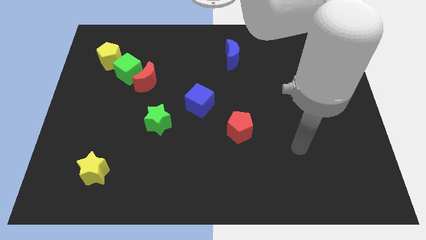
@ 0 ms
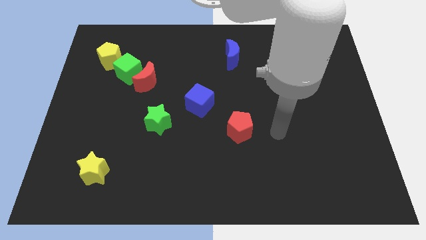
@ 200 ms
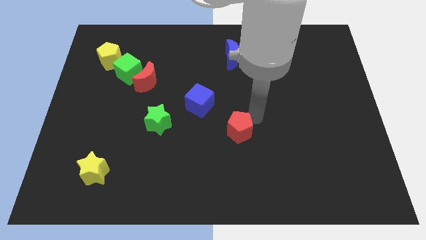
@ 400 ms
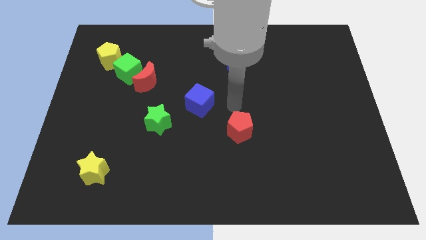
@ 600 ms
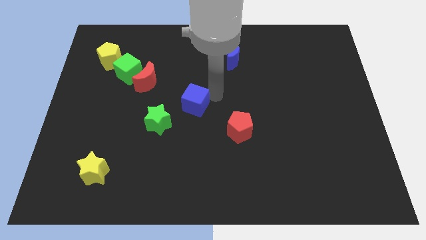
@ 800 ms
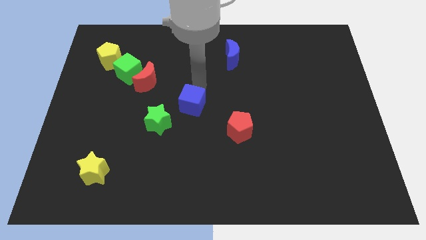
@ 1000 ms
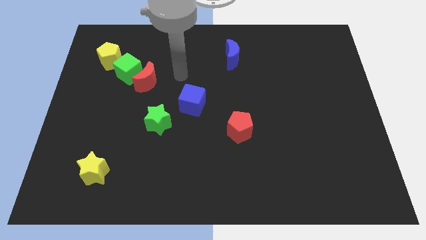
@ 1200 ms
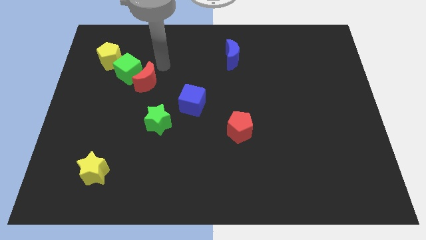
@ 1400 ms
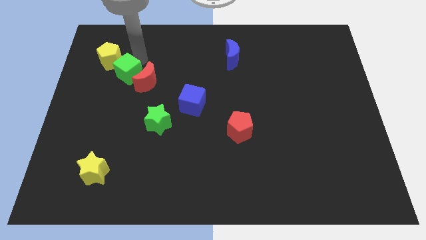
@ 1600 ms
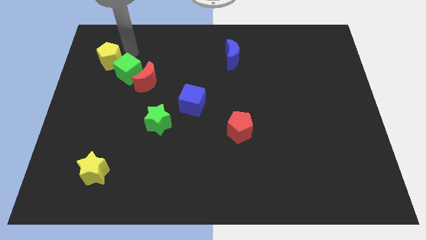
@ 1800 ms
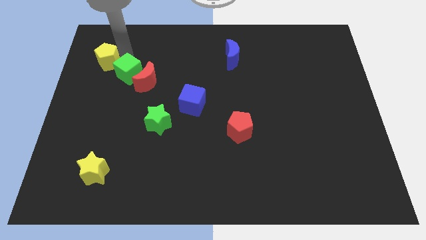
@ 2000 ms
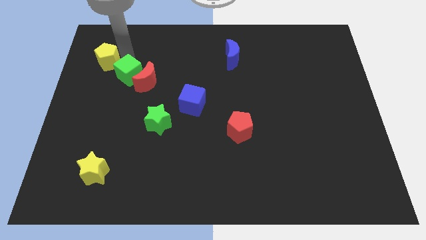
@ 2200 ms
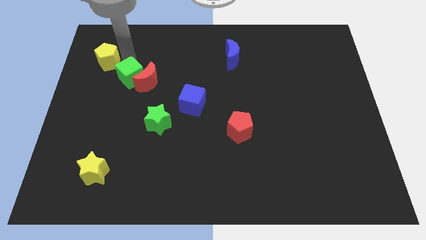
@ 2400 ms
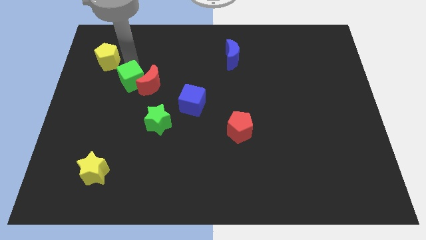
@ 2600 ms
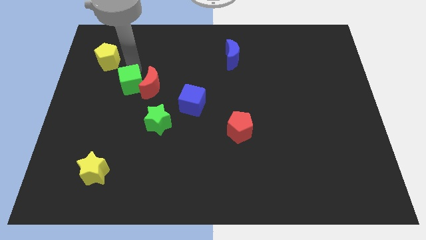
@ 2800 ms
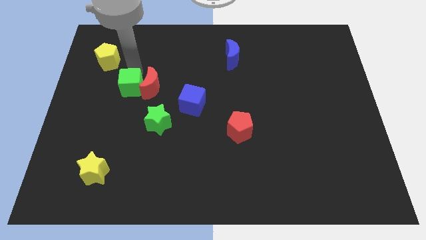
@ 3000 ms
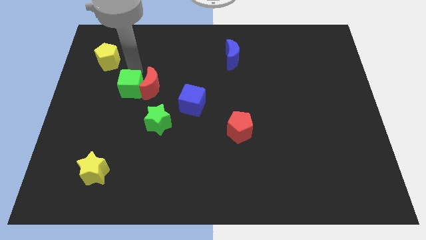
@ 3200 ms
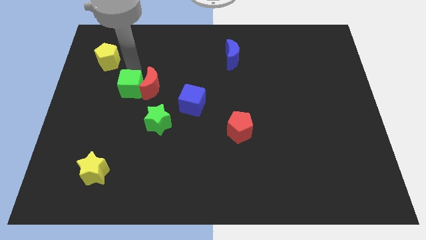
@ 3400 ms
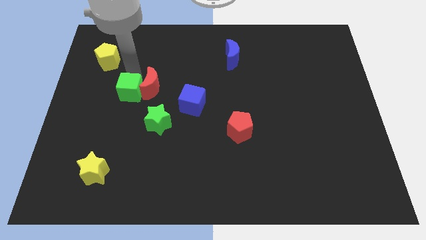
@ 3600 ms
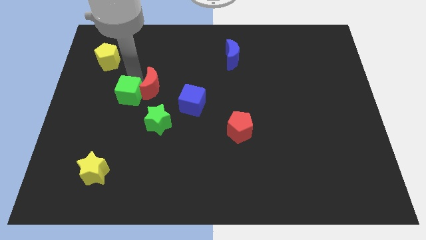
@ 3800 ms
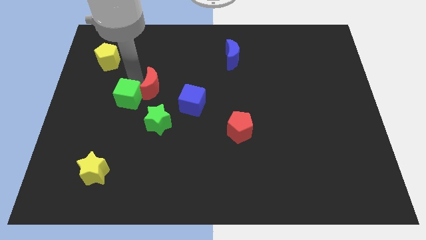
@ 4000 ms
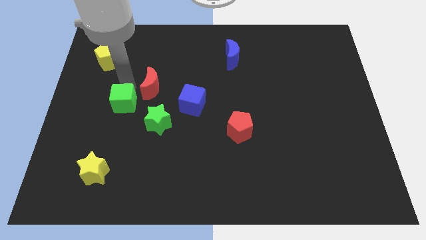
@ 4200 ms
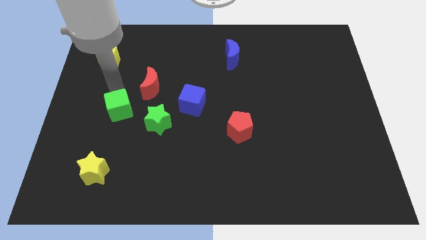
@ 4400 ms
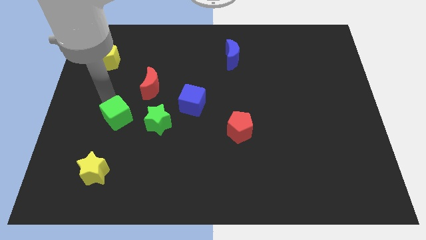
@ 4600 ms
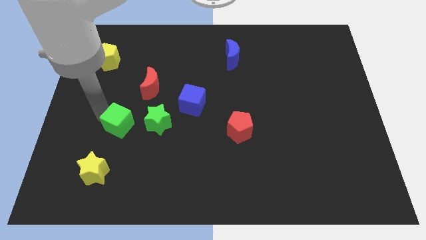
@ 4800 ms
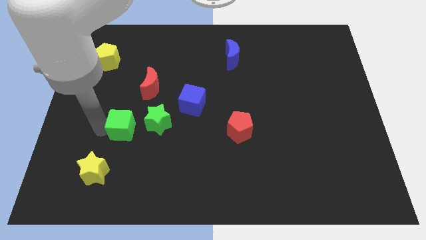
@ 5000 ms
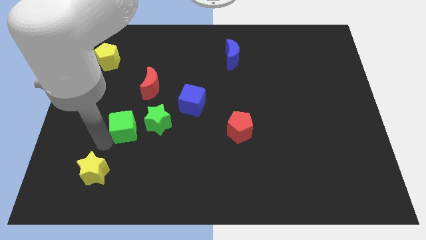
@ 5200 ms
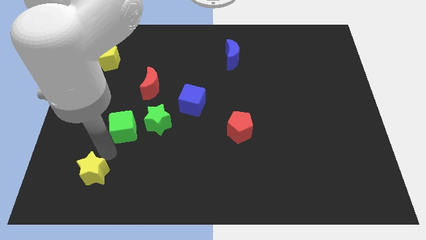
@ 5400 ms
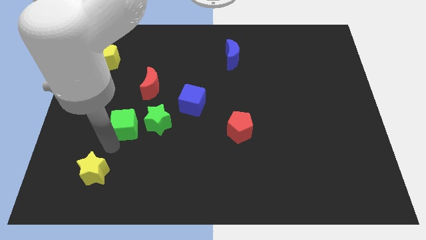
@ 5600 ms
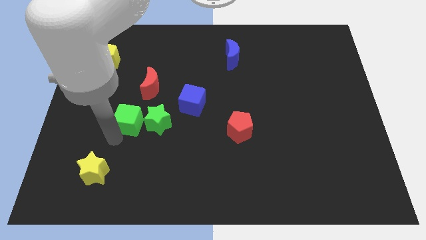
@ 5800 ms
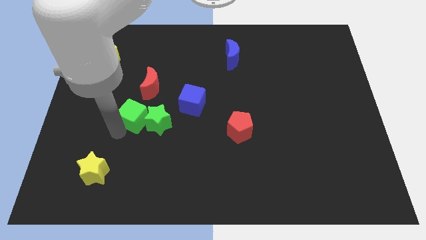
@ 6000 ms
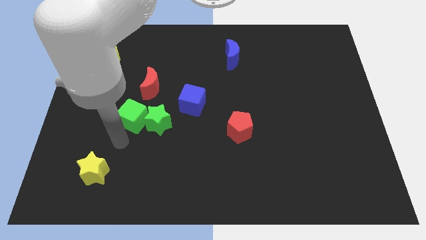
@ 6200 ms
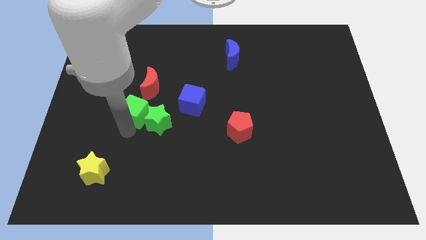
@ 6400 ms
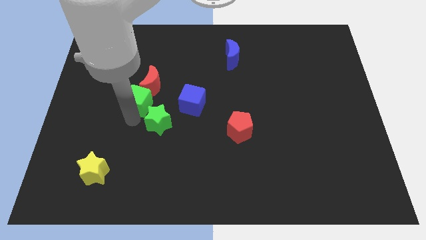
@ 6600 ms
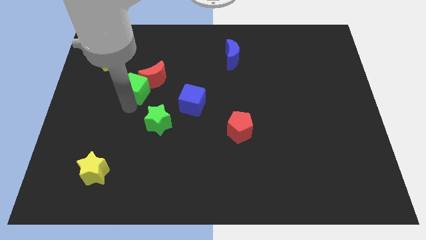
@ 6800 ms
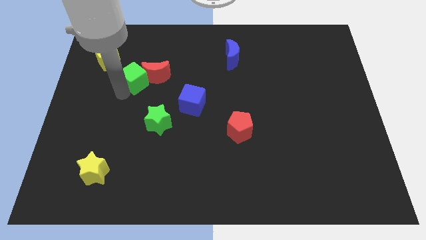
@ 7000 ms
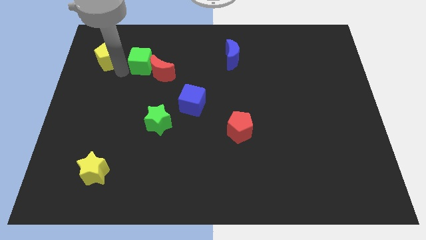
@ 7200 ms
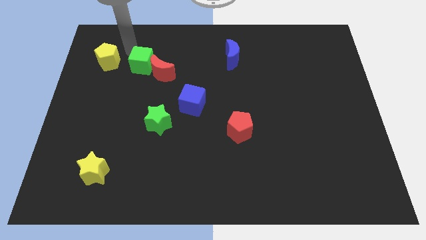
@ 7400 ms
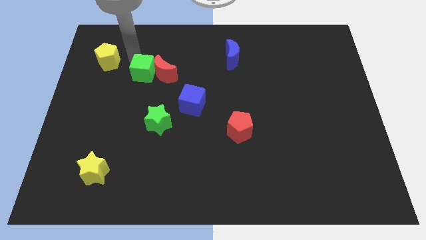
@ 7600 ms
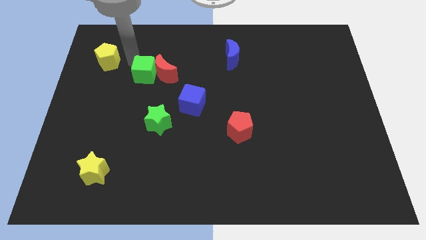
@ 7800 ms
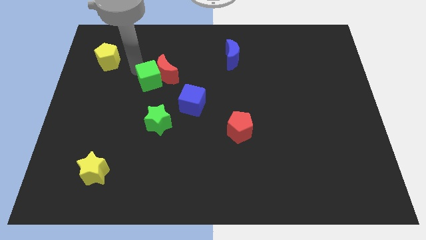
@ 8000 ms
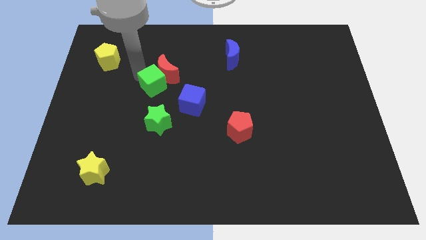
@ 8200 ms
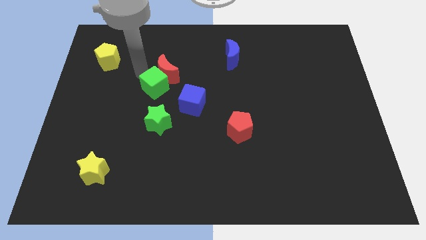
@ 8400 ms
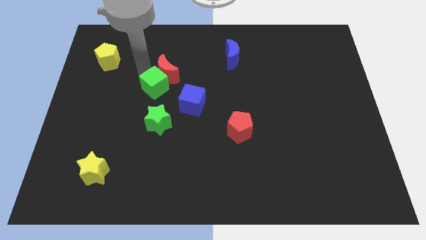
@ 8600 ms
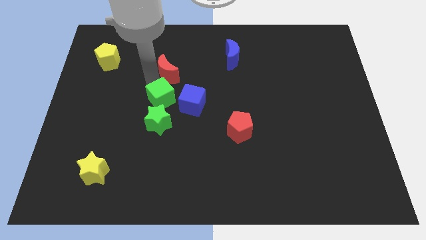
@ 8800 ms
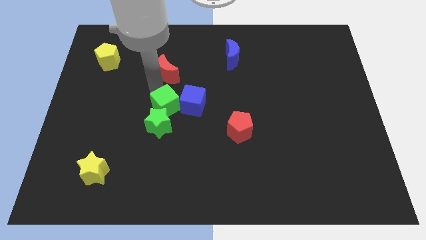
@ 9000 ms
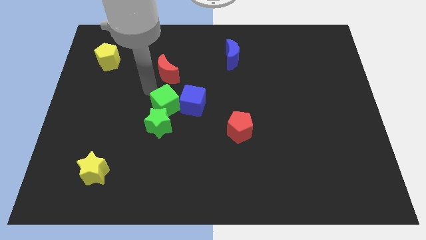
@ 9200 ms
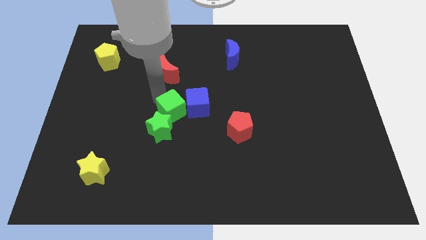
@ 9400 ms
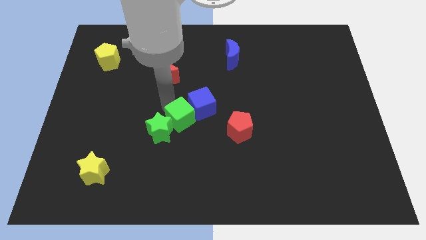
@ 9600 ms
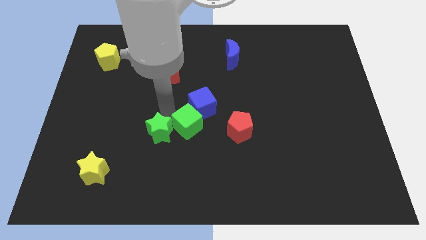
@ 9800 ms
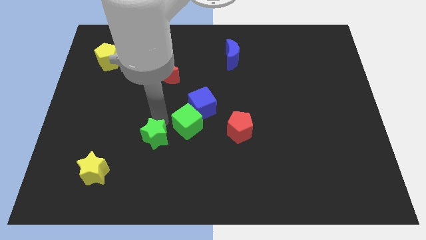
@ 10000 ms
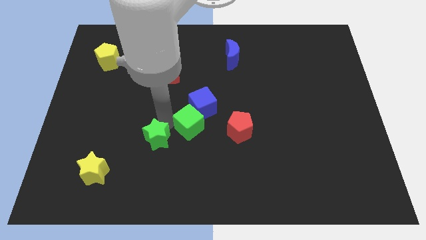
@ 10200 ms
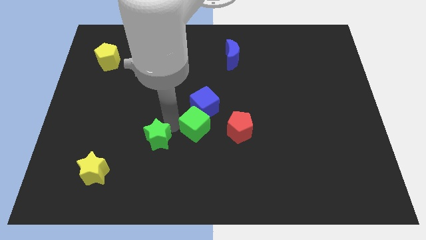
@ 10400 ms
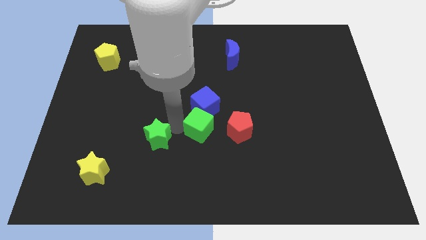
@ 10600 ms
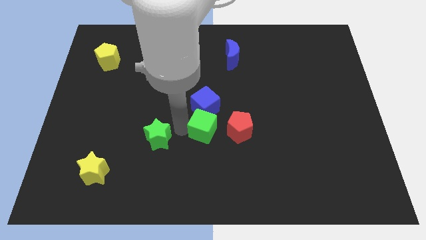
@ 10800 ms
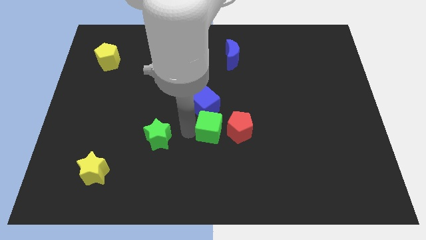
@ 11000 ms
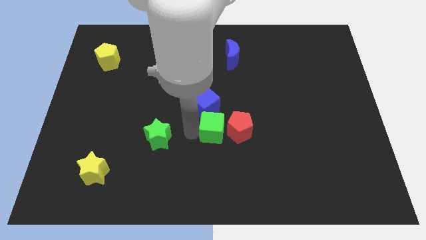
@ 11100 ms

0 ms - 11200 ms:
move the green cube next to the red pentagon

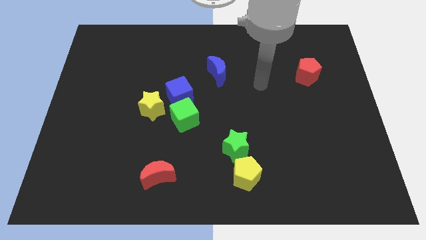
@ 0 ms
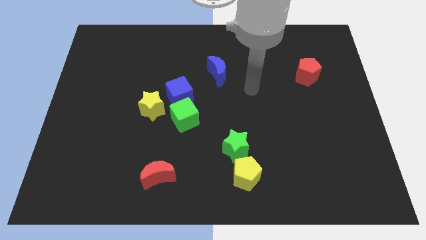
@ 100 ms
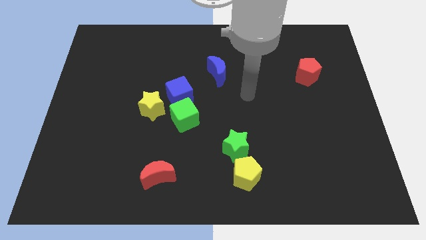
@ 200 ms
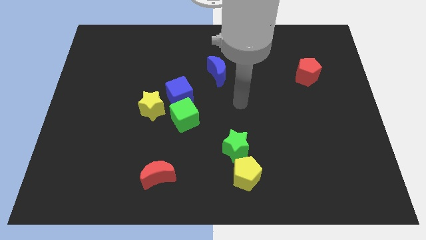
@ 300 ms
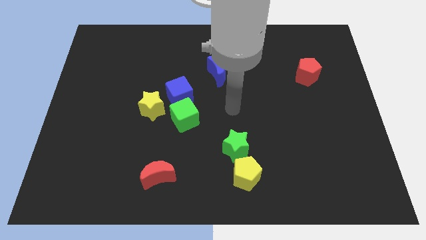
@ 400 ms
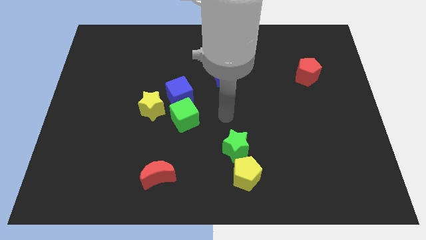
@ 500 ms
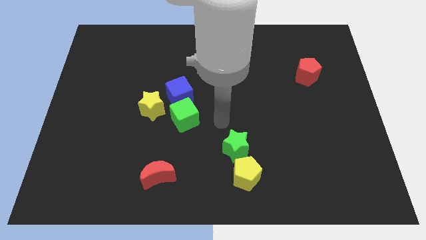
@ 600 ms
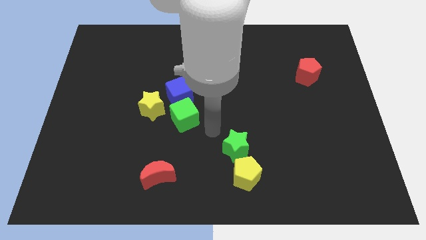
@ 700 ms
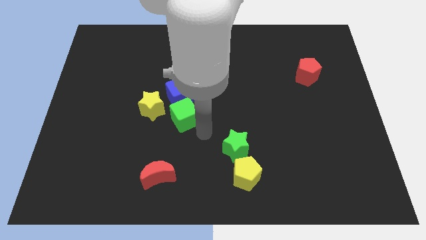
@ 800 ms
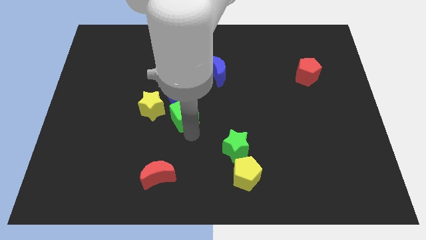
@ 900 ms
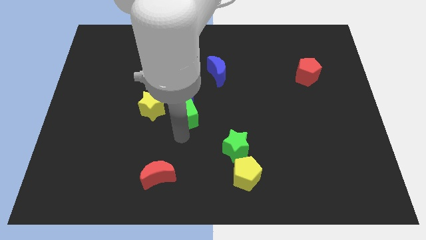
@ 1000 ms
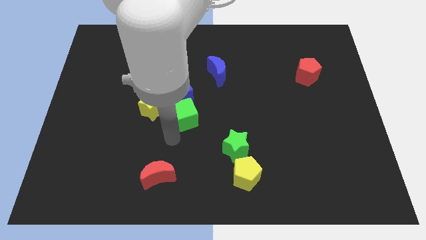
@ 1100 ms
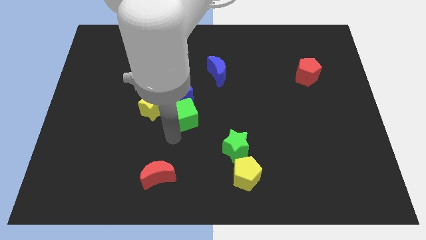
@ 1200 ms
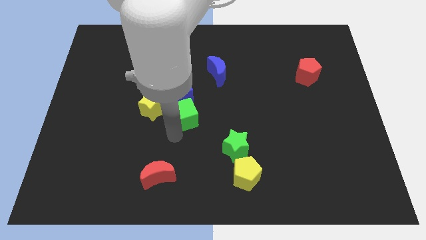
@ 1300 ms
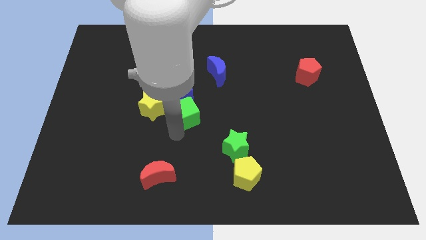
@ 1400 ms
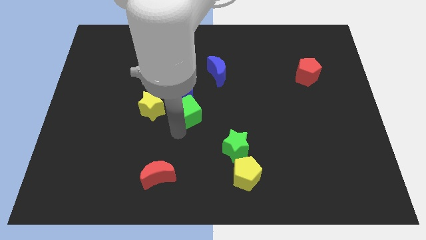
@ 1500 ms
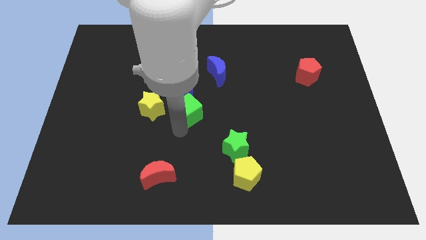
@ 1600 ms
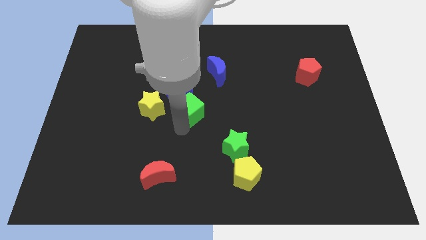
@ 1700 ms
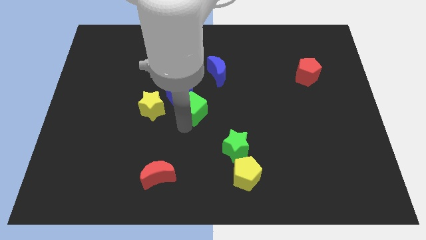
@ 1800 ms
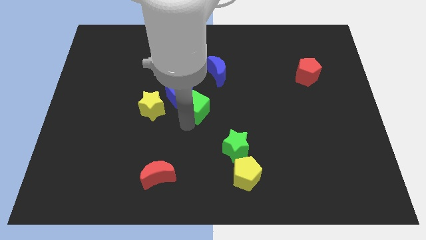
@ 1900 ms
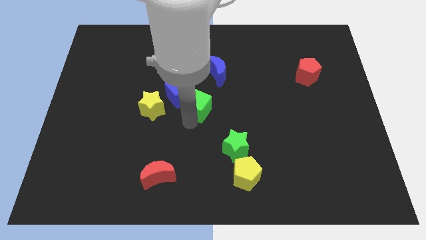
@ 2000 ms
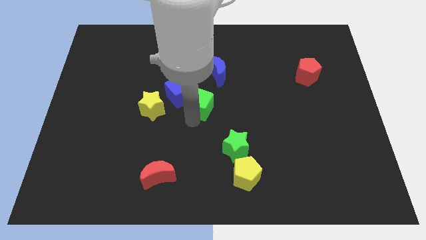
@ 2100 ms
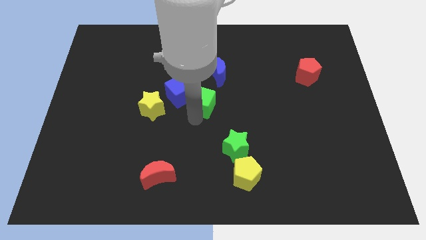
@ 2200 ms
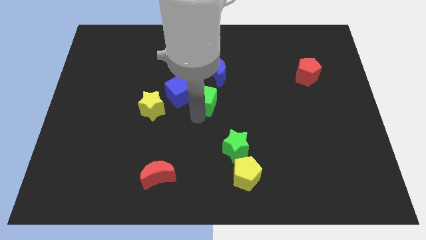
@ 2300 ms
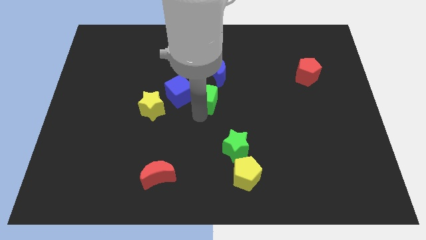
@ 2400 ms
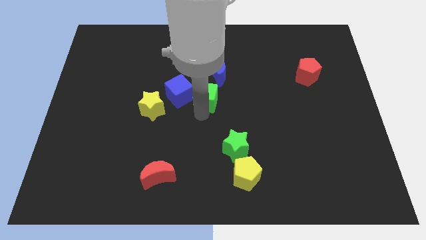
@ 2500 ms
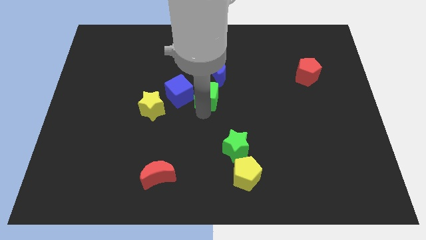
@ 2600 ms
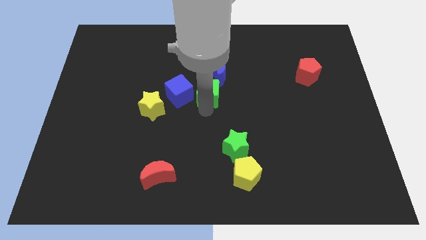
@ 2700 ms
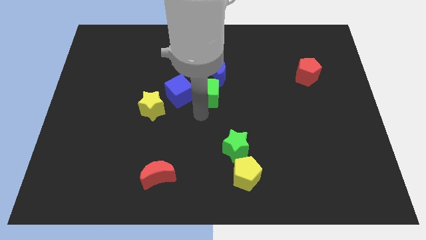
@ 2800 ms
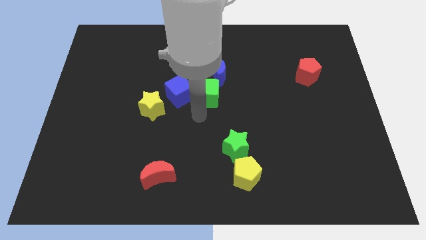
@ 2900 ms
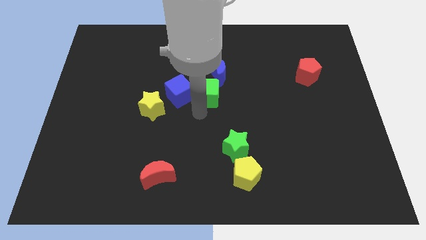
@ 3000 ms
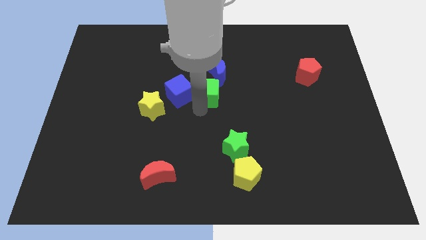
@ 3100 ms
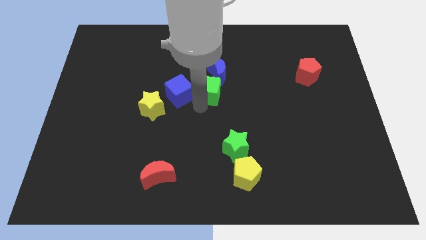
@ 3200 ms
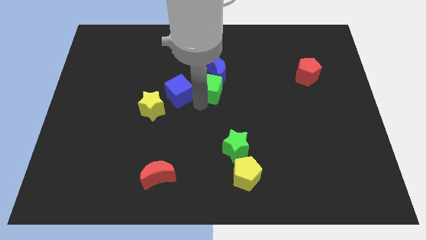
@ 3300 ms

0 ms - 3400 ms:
put the green cube to the blue moon
